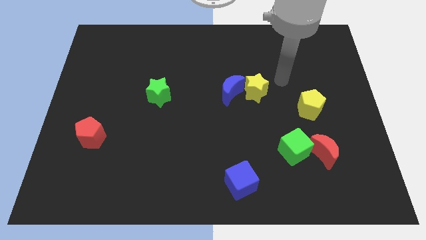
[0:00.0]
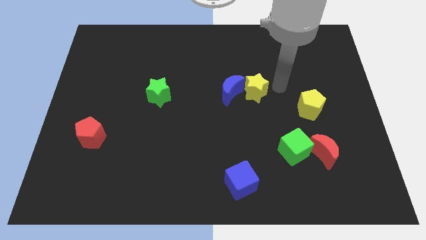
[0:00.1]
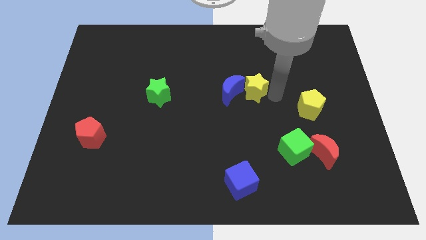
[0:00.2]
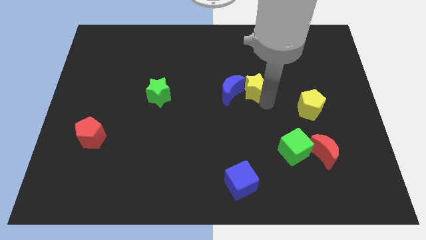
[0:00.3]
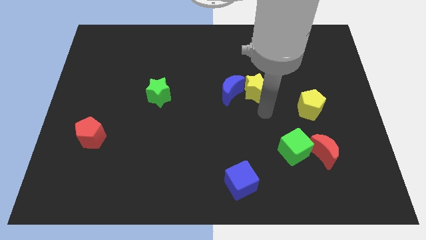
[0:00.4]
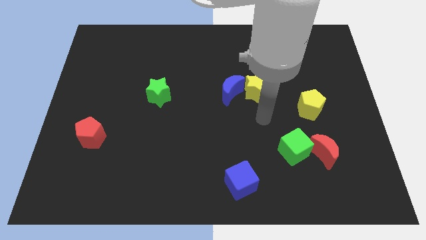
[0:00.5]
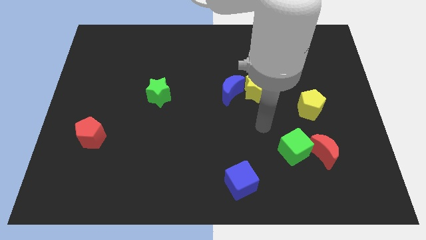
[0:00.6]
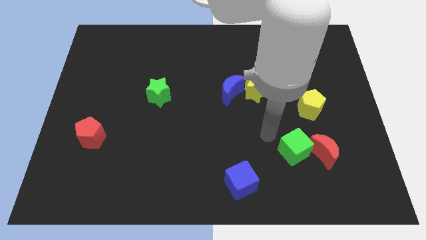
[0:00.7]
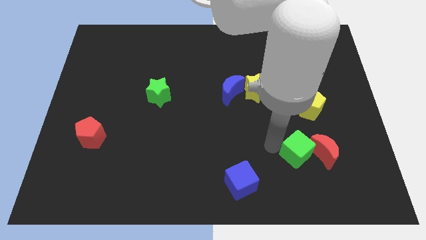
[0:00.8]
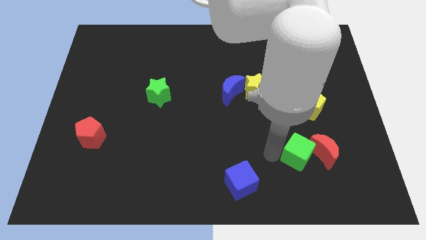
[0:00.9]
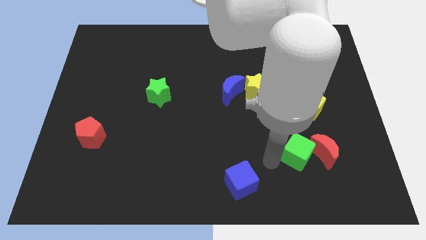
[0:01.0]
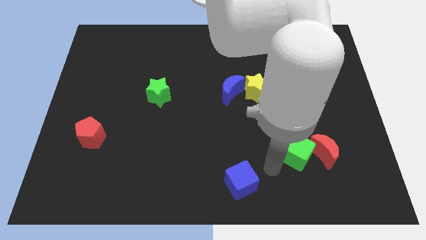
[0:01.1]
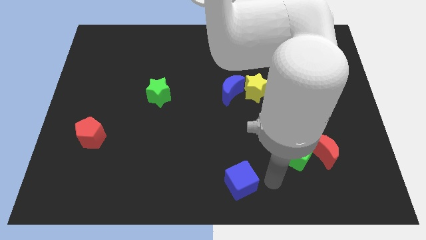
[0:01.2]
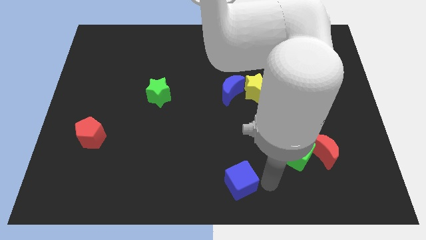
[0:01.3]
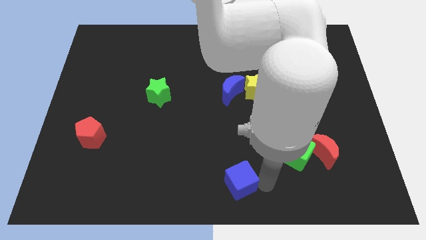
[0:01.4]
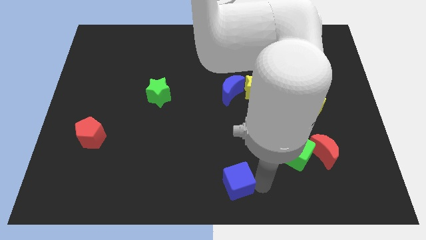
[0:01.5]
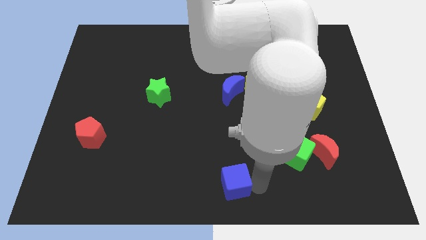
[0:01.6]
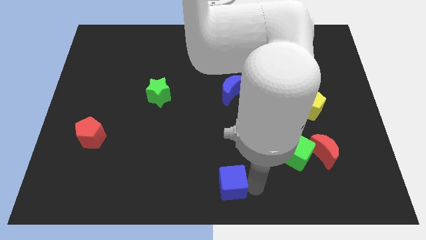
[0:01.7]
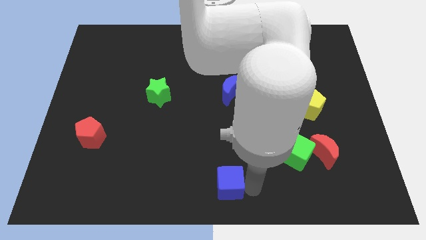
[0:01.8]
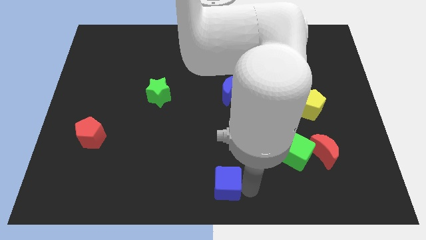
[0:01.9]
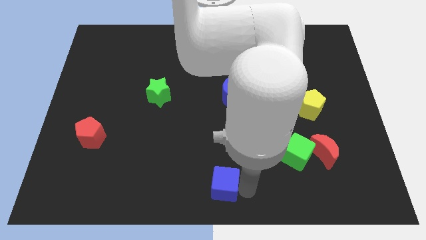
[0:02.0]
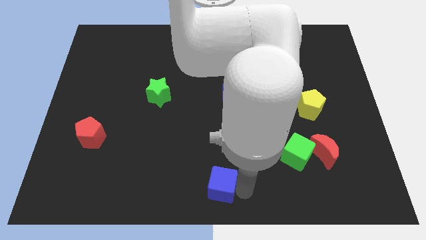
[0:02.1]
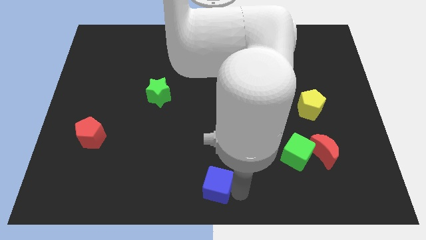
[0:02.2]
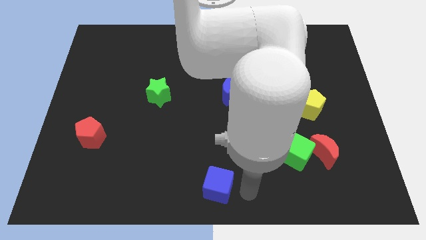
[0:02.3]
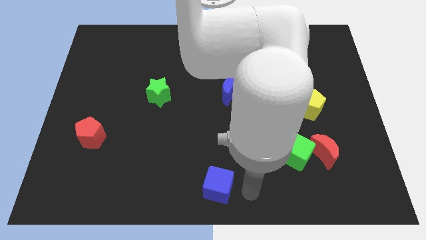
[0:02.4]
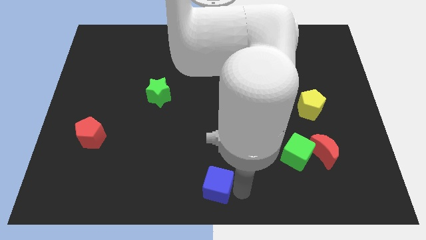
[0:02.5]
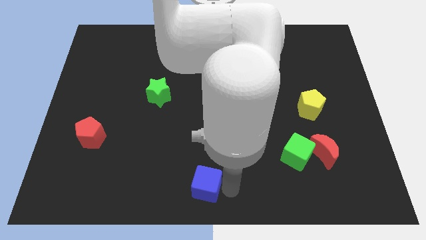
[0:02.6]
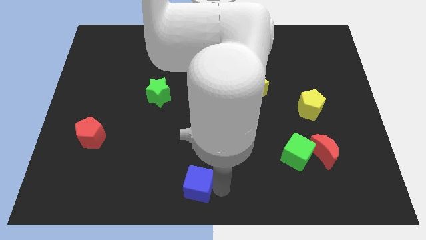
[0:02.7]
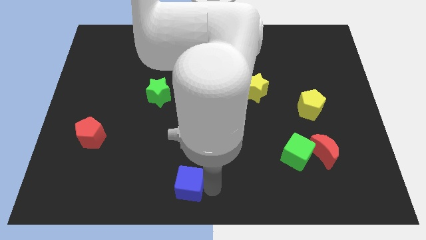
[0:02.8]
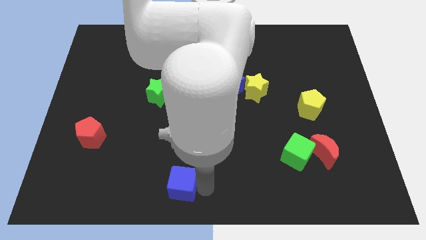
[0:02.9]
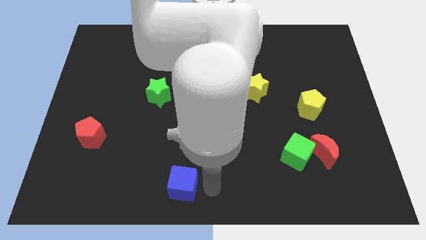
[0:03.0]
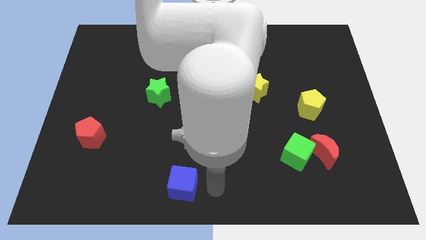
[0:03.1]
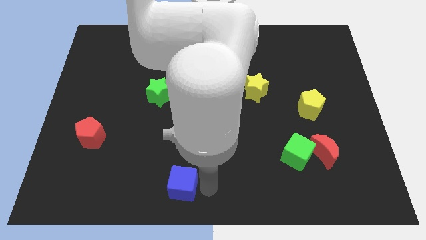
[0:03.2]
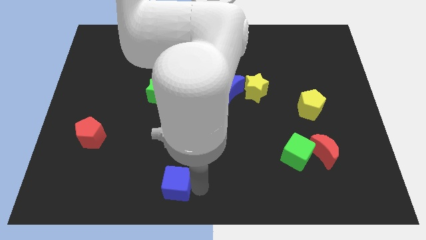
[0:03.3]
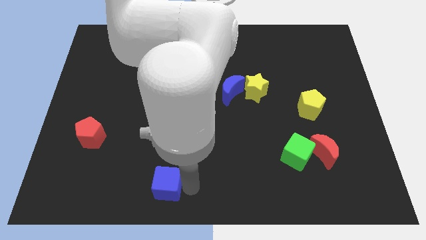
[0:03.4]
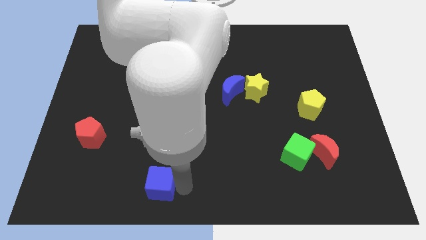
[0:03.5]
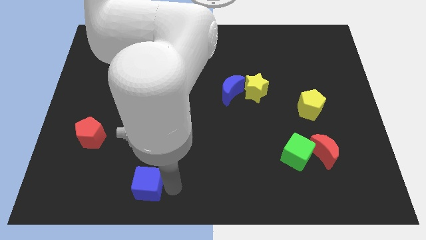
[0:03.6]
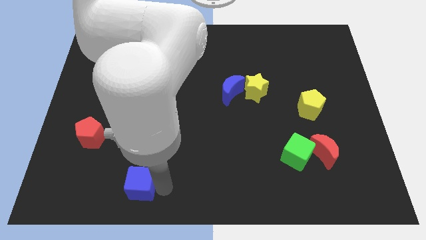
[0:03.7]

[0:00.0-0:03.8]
slide the blue cube left

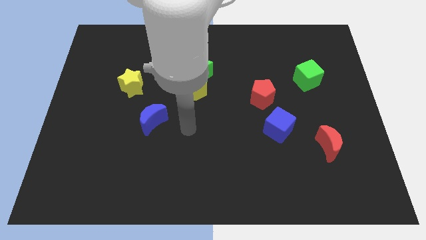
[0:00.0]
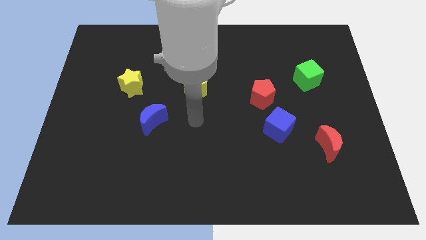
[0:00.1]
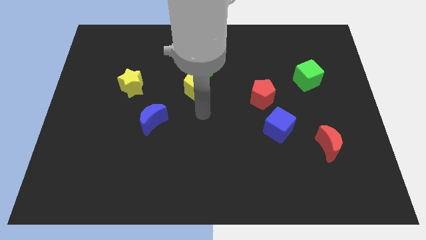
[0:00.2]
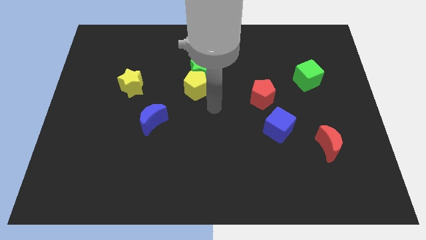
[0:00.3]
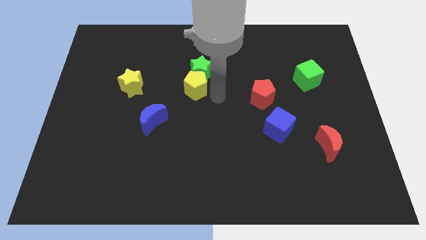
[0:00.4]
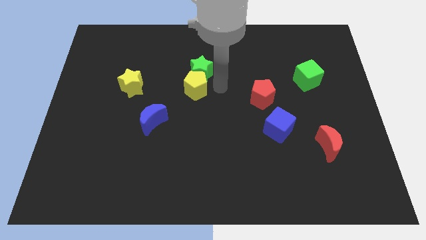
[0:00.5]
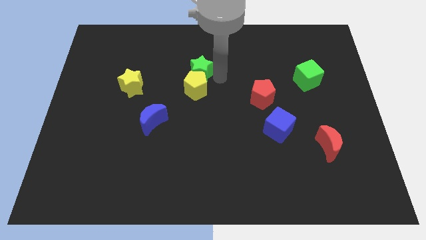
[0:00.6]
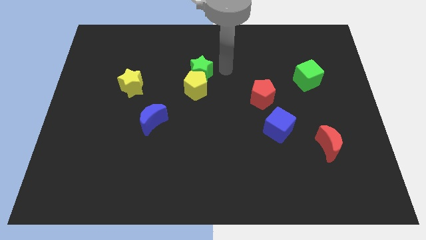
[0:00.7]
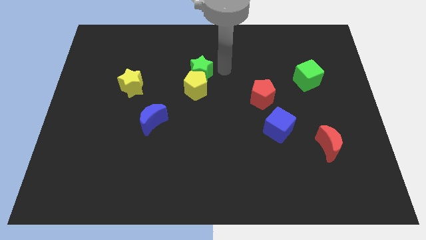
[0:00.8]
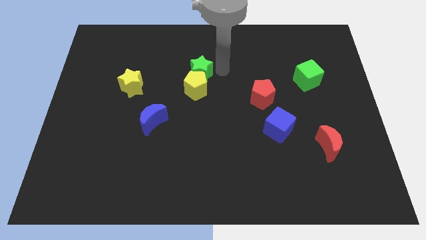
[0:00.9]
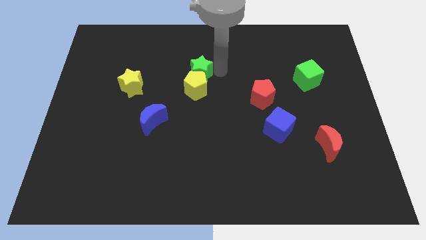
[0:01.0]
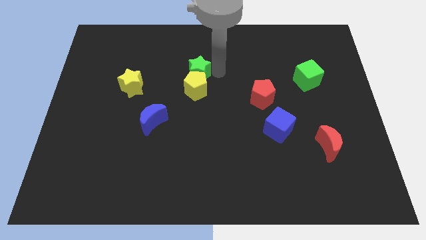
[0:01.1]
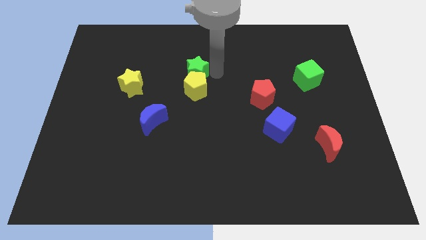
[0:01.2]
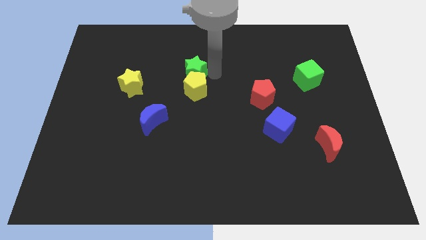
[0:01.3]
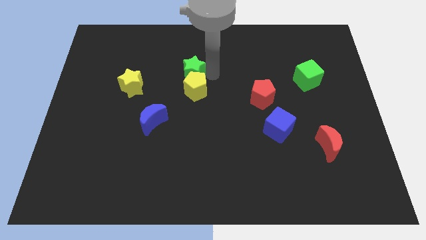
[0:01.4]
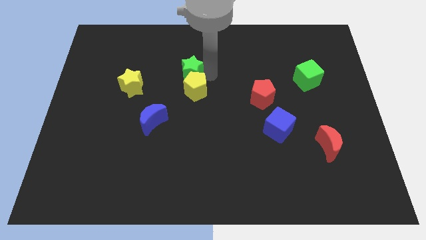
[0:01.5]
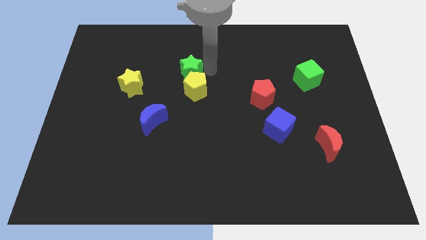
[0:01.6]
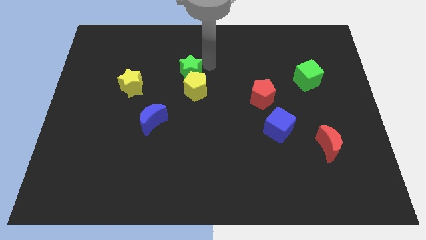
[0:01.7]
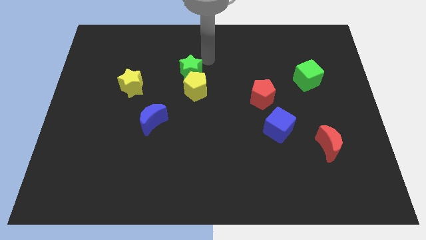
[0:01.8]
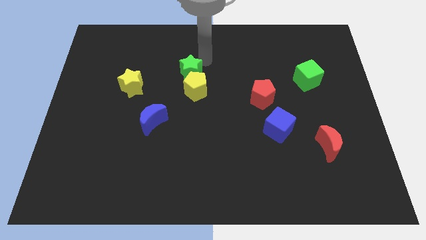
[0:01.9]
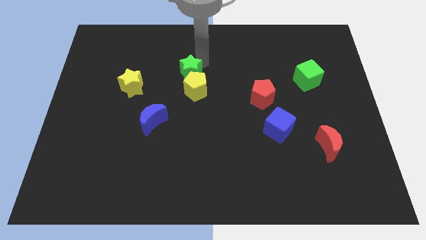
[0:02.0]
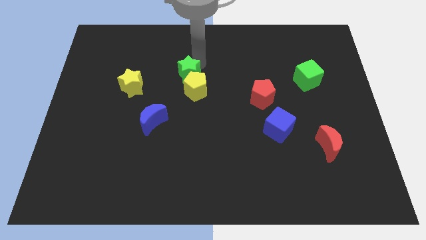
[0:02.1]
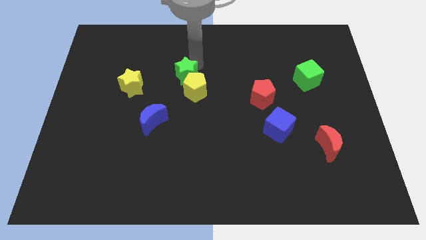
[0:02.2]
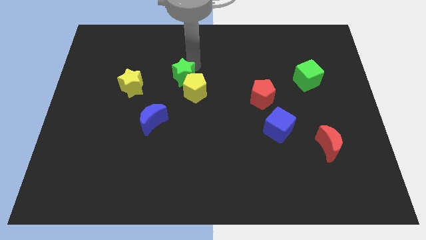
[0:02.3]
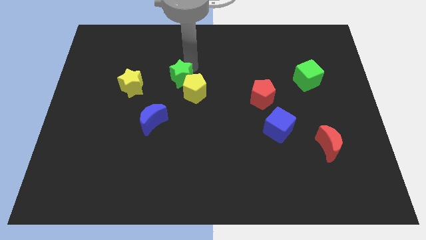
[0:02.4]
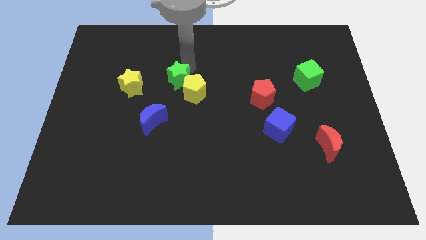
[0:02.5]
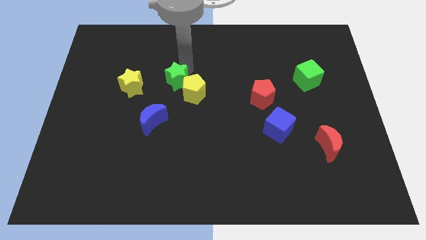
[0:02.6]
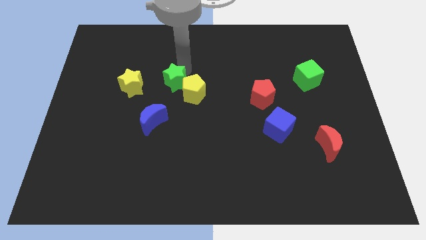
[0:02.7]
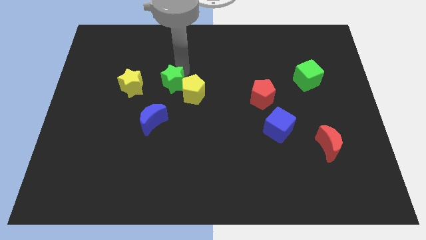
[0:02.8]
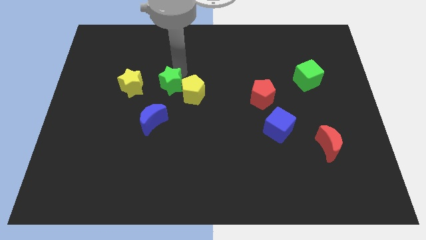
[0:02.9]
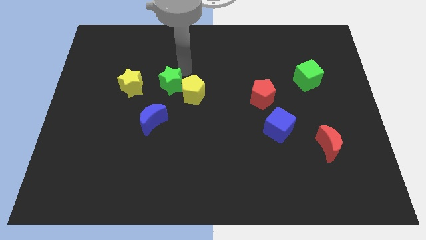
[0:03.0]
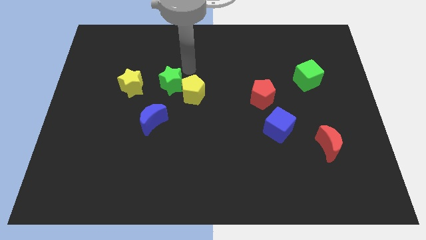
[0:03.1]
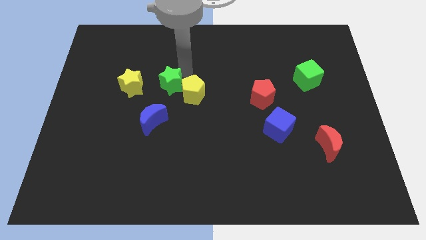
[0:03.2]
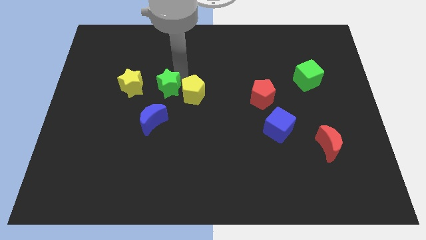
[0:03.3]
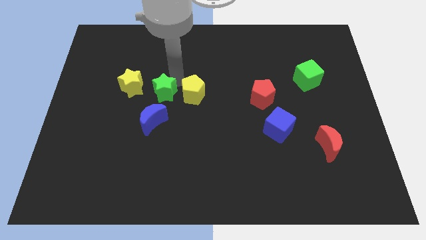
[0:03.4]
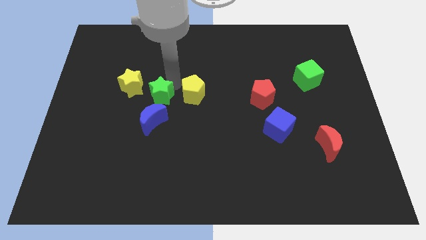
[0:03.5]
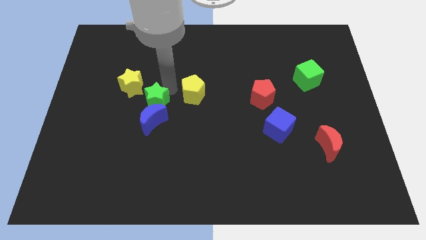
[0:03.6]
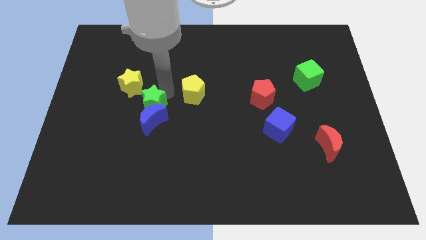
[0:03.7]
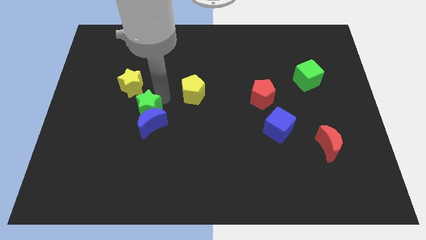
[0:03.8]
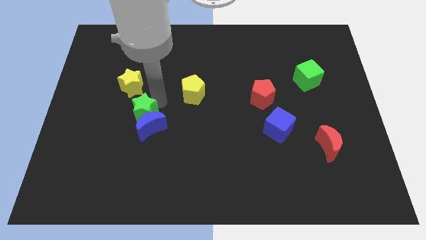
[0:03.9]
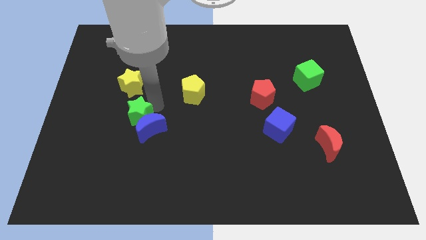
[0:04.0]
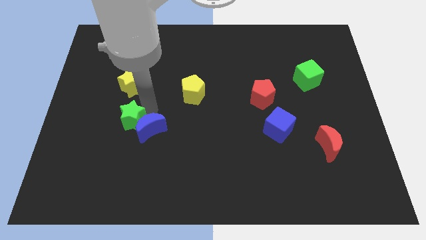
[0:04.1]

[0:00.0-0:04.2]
move the green star downwards and left
